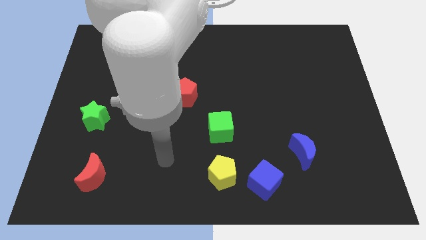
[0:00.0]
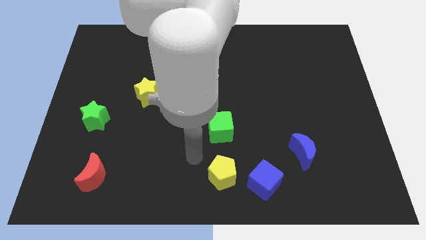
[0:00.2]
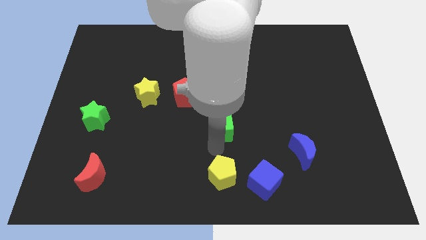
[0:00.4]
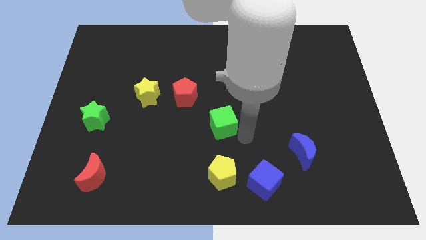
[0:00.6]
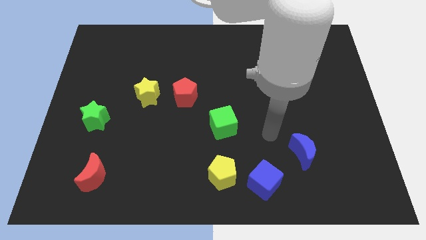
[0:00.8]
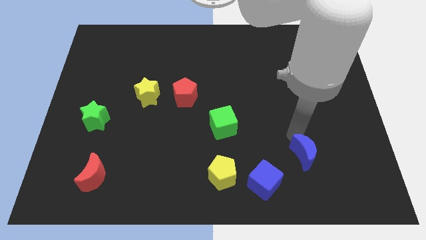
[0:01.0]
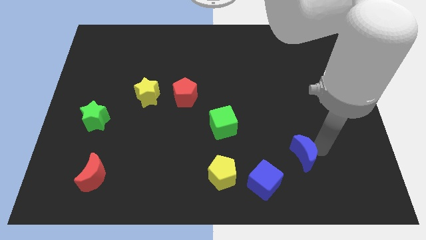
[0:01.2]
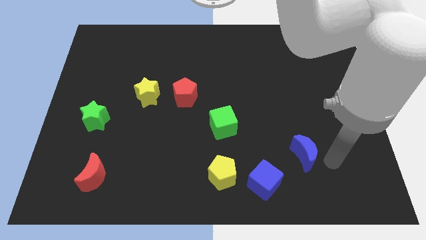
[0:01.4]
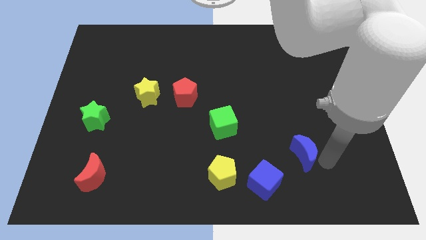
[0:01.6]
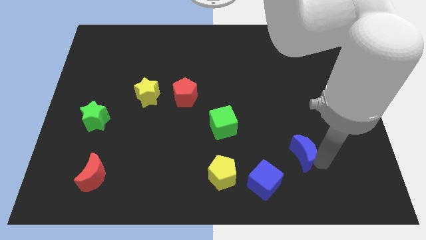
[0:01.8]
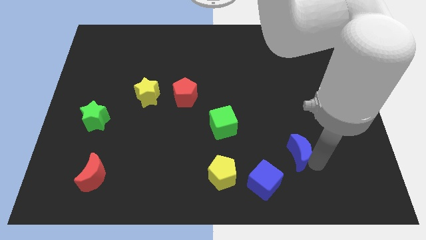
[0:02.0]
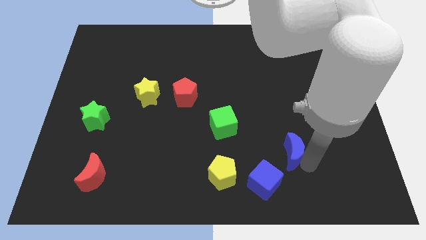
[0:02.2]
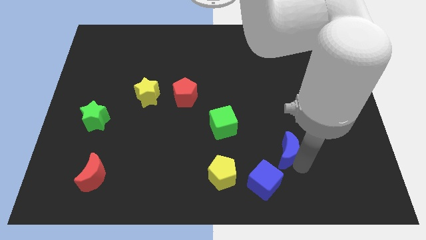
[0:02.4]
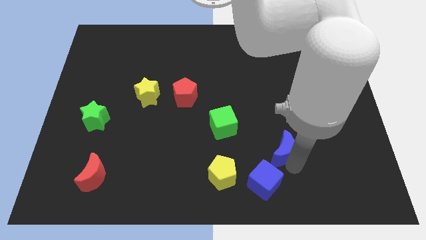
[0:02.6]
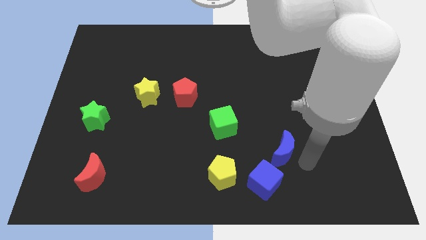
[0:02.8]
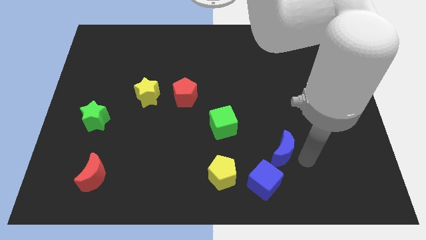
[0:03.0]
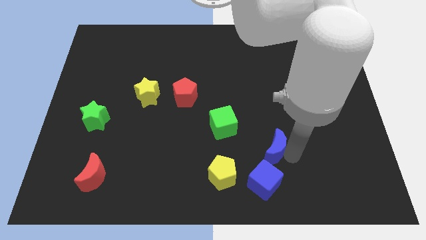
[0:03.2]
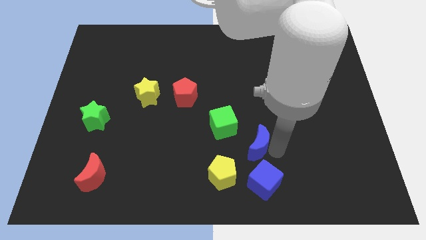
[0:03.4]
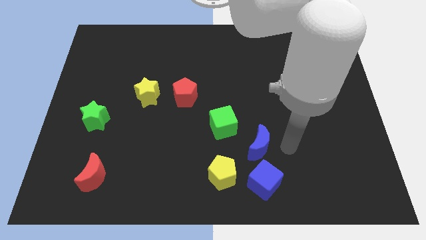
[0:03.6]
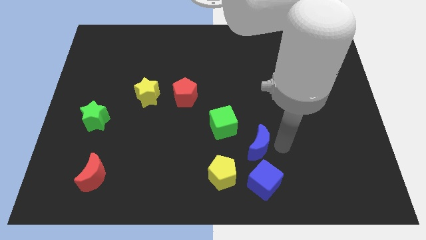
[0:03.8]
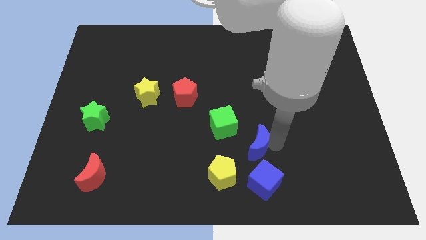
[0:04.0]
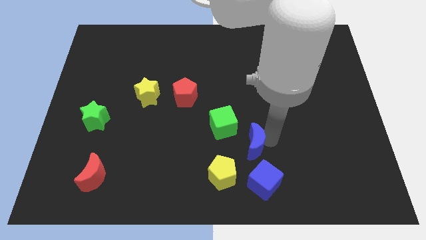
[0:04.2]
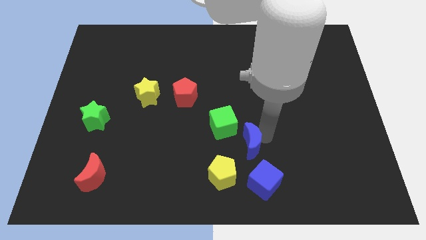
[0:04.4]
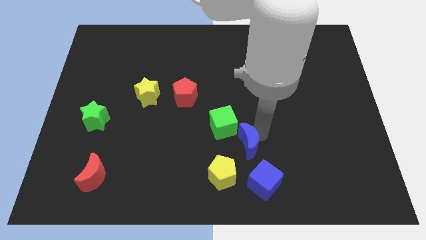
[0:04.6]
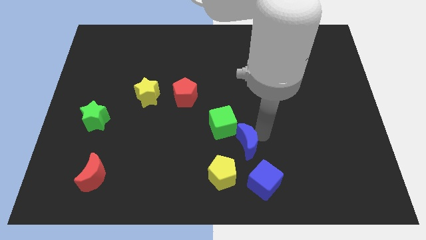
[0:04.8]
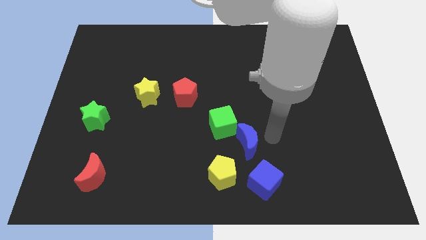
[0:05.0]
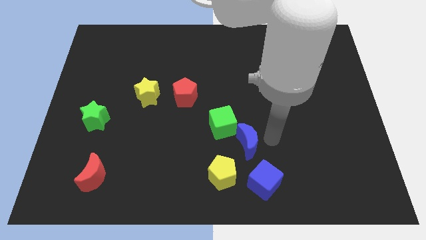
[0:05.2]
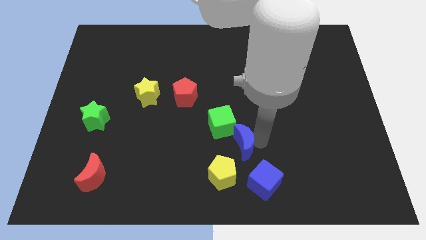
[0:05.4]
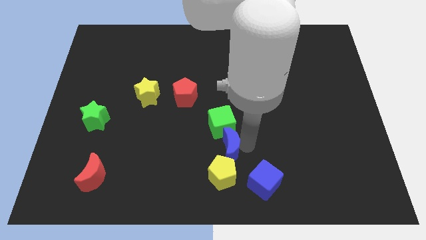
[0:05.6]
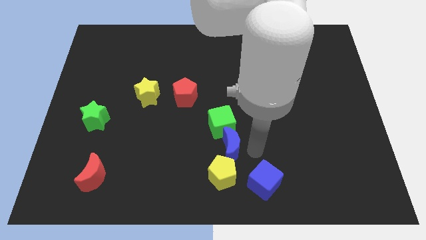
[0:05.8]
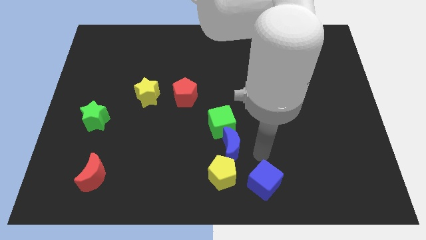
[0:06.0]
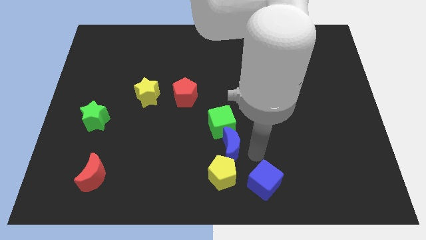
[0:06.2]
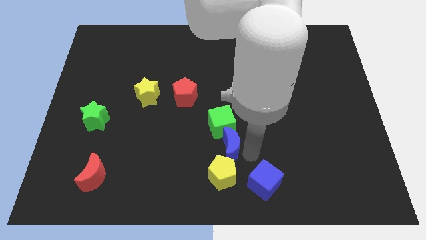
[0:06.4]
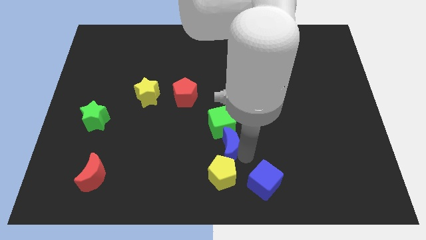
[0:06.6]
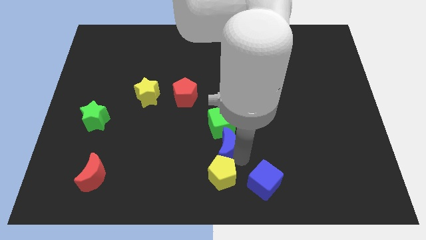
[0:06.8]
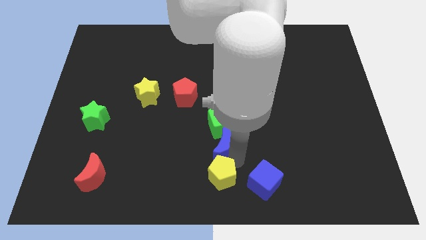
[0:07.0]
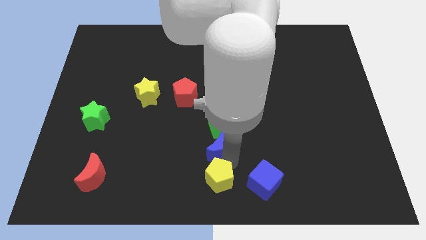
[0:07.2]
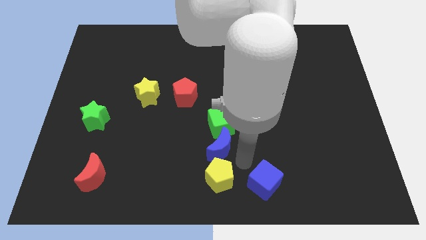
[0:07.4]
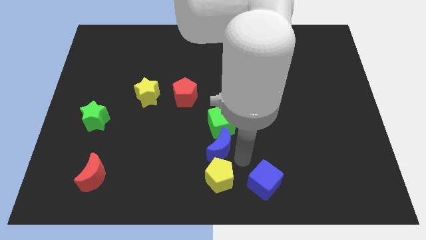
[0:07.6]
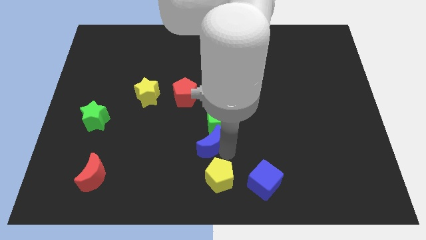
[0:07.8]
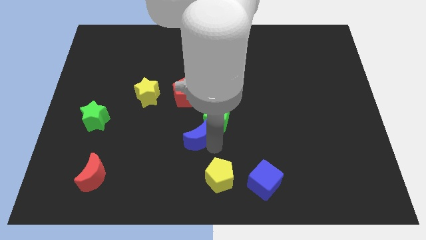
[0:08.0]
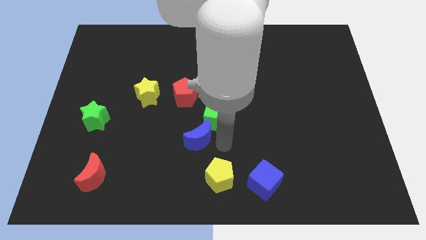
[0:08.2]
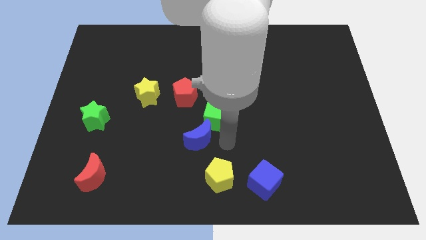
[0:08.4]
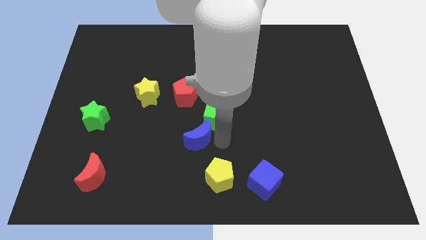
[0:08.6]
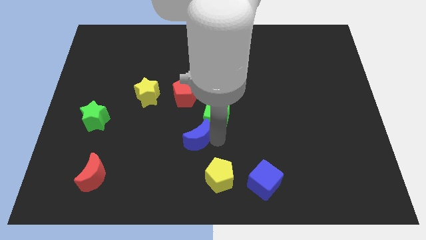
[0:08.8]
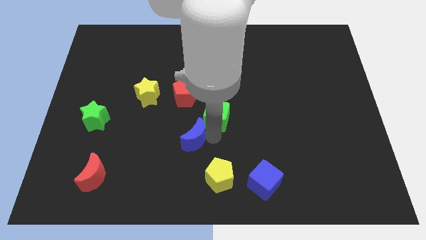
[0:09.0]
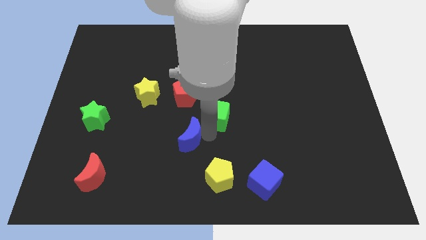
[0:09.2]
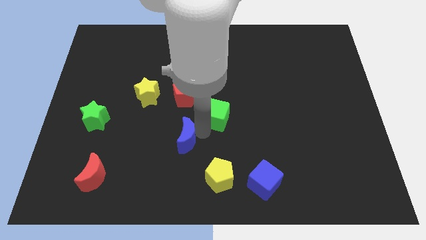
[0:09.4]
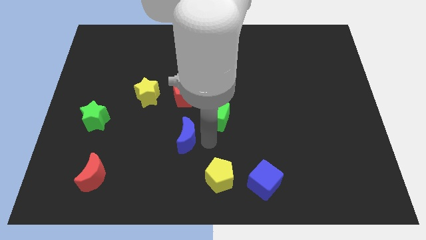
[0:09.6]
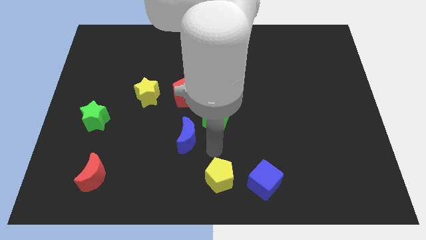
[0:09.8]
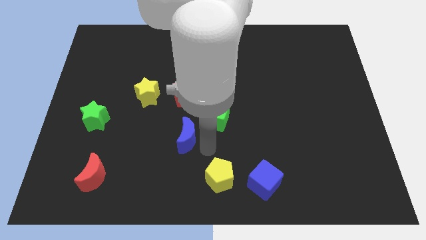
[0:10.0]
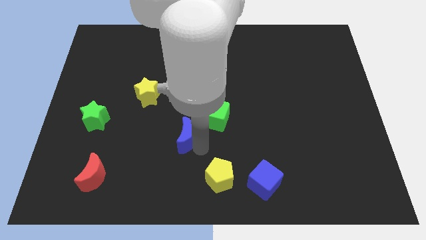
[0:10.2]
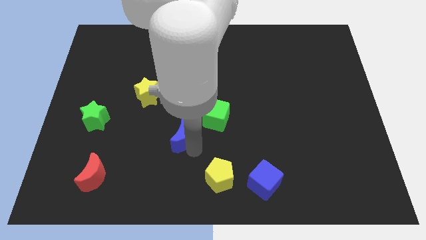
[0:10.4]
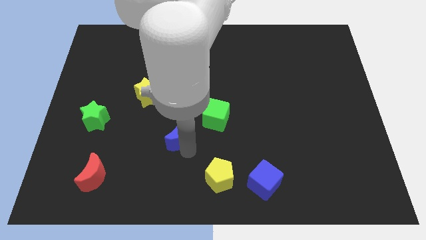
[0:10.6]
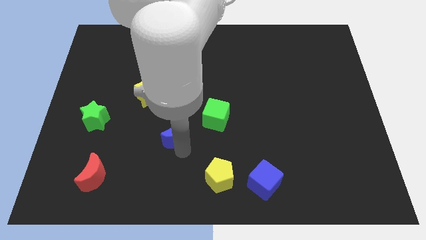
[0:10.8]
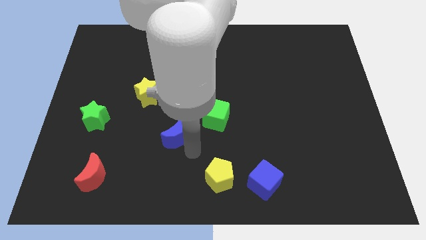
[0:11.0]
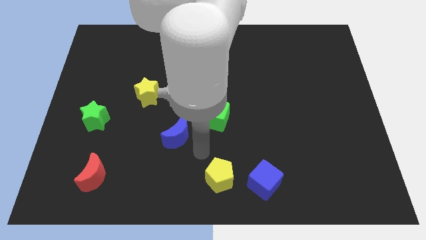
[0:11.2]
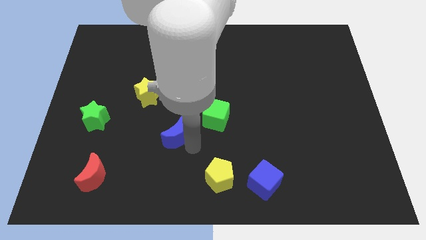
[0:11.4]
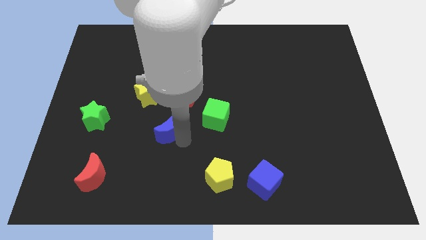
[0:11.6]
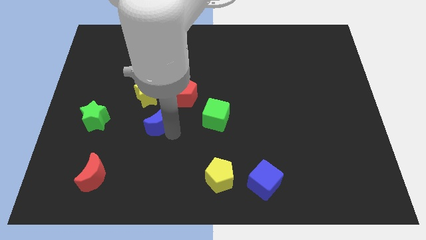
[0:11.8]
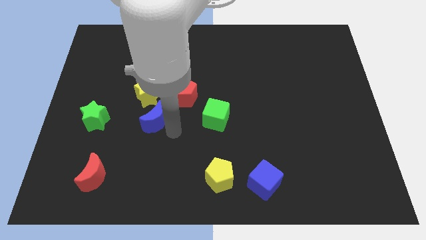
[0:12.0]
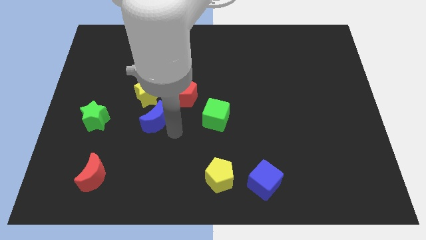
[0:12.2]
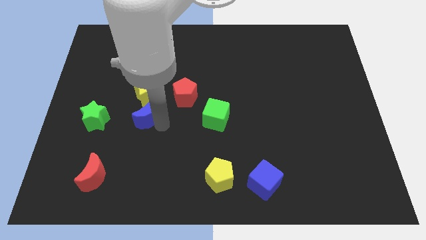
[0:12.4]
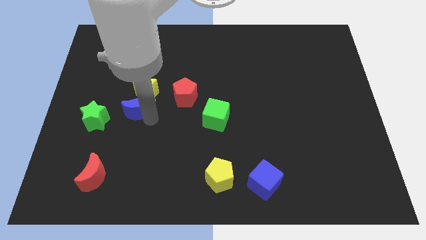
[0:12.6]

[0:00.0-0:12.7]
put the blue moon to the top right side of the green star
